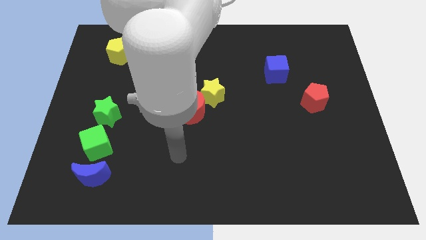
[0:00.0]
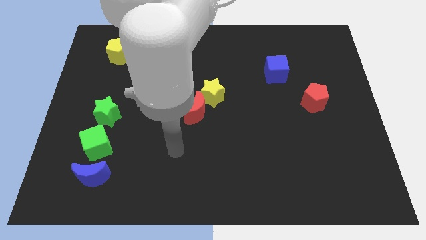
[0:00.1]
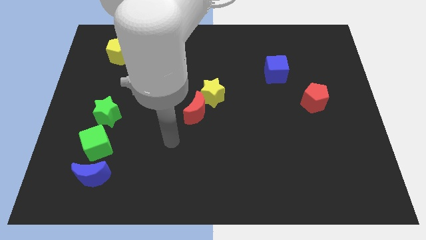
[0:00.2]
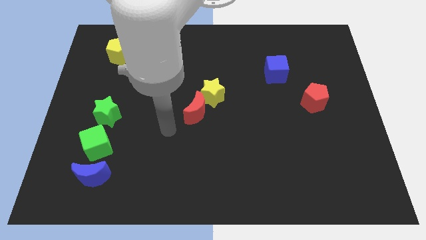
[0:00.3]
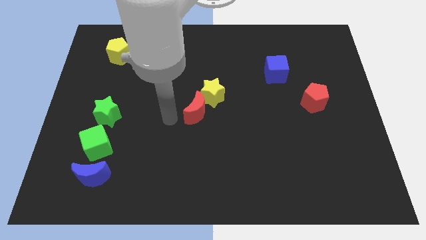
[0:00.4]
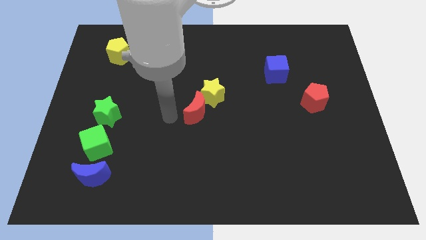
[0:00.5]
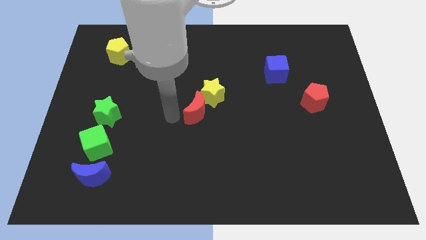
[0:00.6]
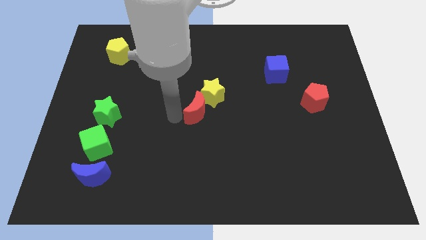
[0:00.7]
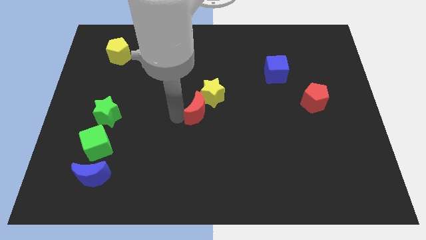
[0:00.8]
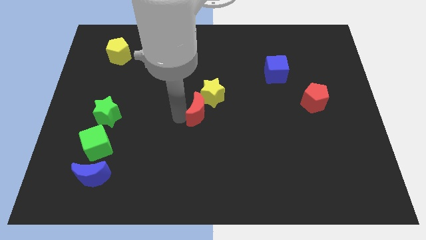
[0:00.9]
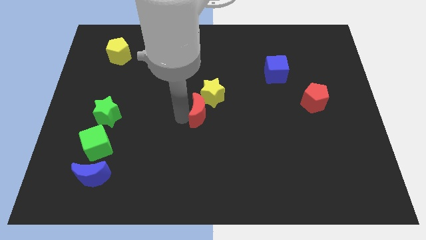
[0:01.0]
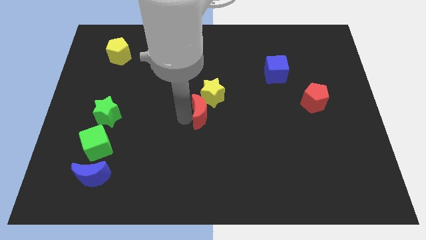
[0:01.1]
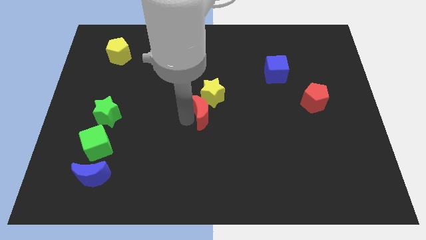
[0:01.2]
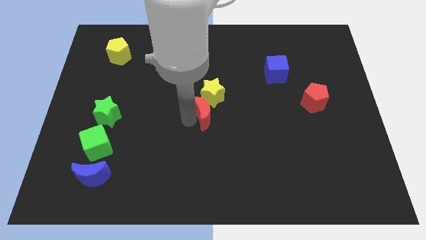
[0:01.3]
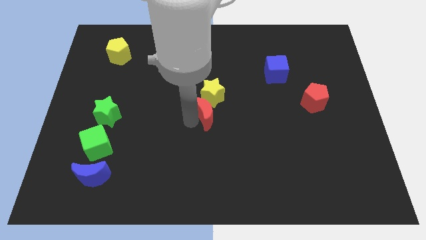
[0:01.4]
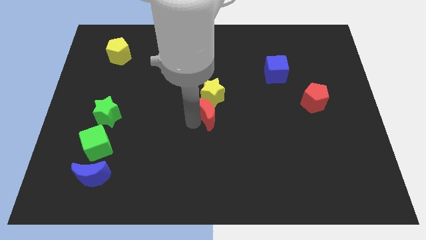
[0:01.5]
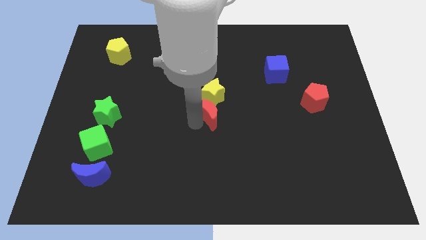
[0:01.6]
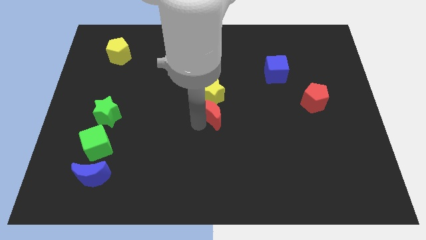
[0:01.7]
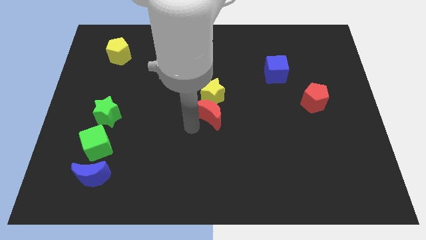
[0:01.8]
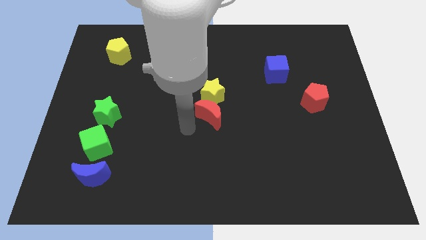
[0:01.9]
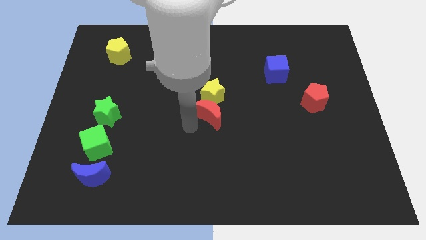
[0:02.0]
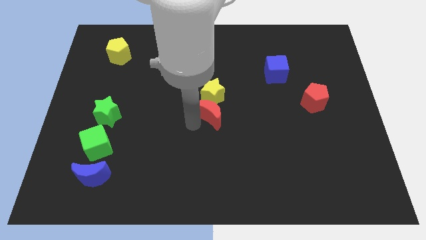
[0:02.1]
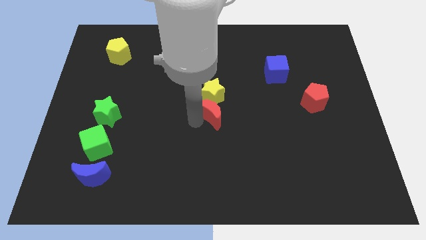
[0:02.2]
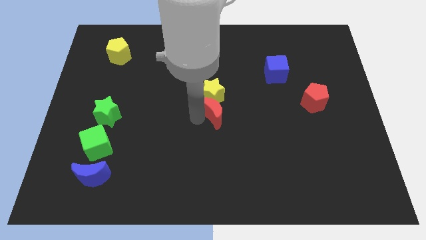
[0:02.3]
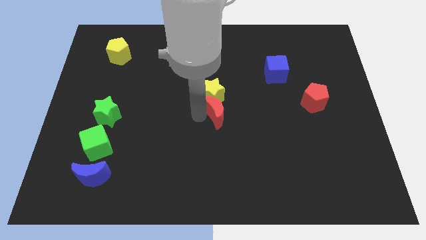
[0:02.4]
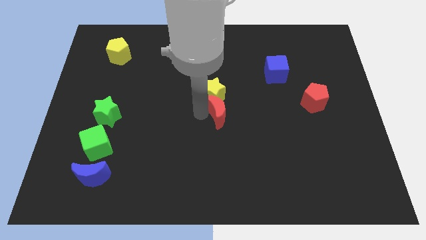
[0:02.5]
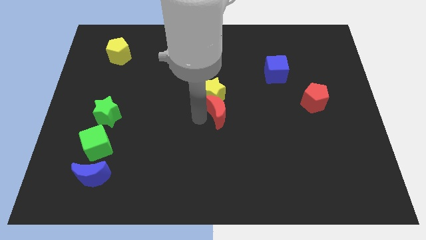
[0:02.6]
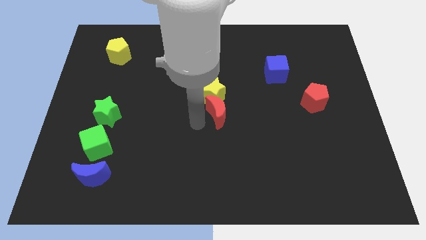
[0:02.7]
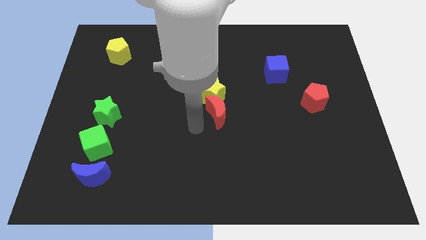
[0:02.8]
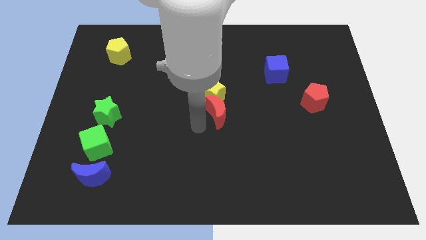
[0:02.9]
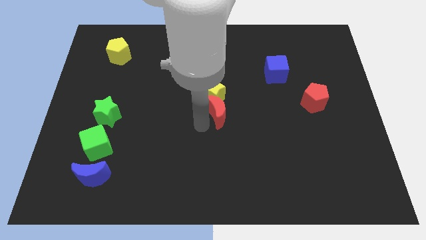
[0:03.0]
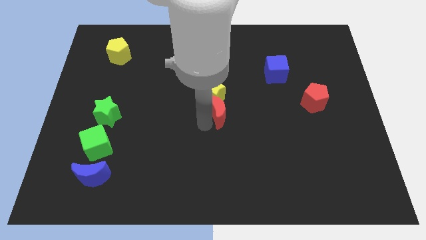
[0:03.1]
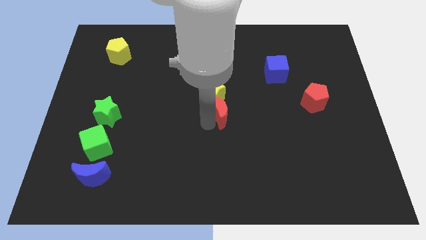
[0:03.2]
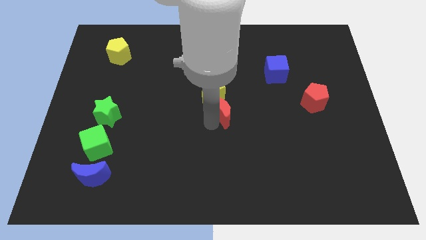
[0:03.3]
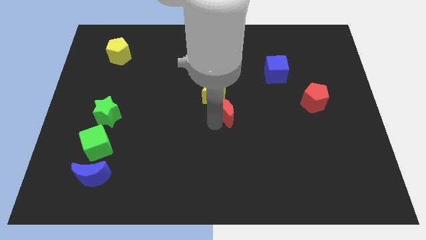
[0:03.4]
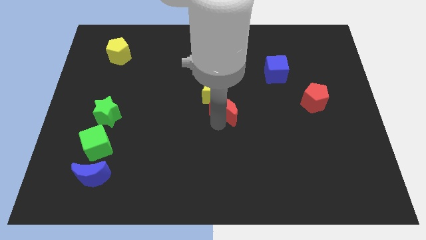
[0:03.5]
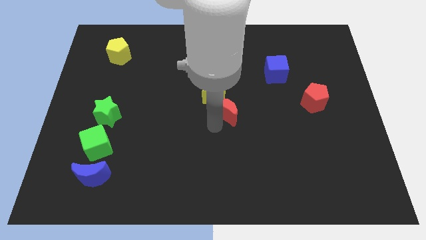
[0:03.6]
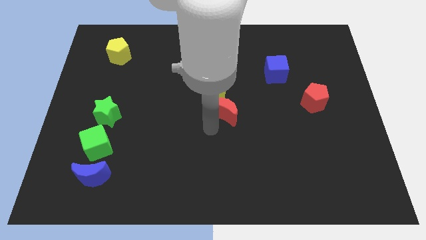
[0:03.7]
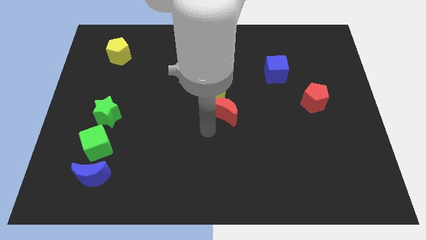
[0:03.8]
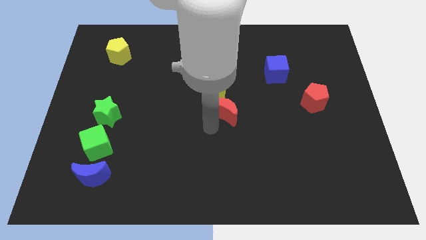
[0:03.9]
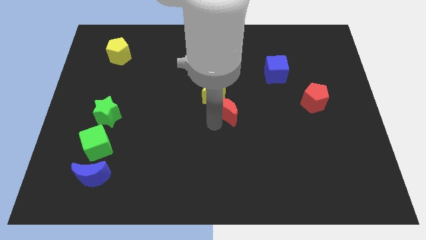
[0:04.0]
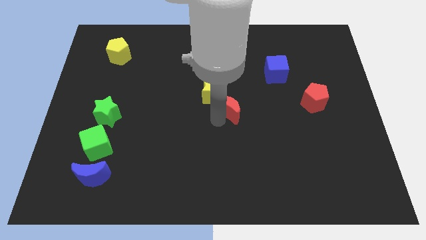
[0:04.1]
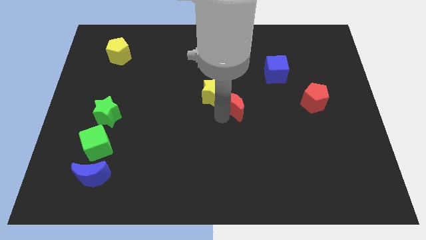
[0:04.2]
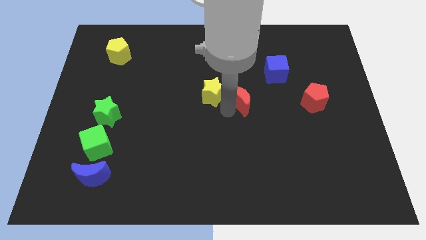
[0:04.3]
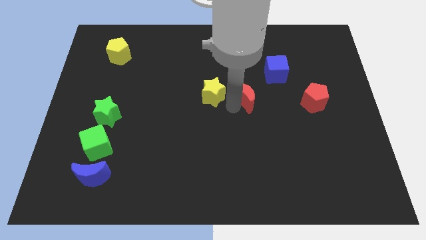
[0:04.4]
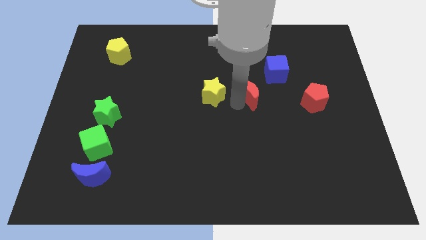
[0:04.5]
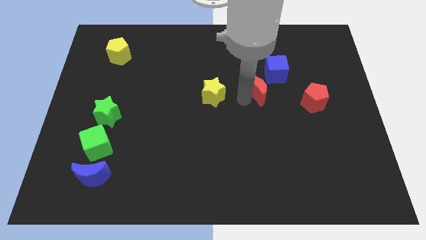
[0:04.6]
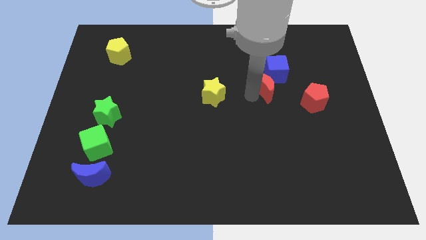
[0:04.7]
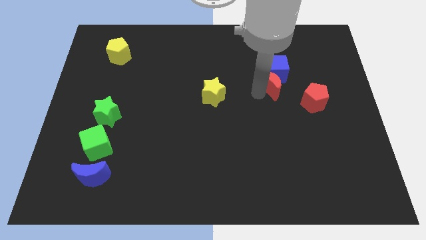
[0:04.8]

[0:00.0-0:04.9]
put the red moon to the blue cube

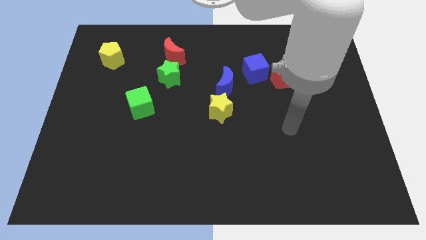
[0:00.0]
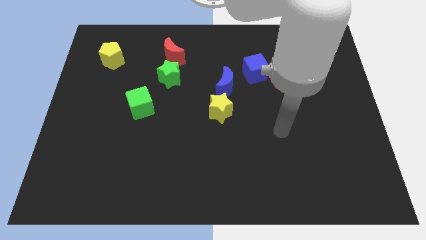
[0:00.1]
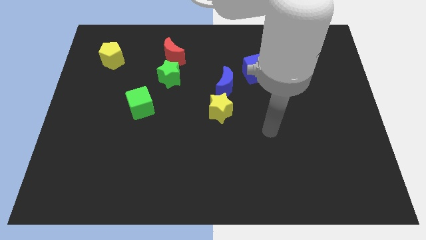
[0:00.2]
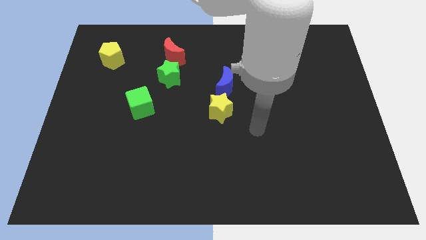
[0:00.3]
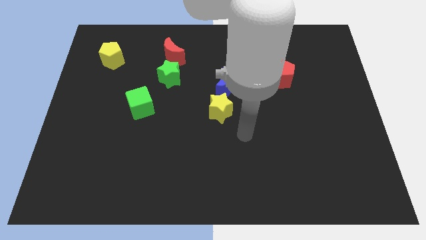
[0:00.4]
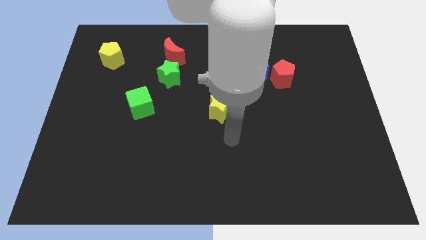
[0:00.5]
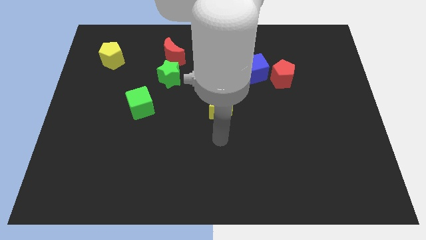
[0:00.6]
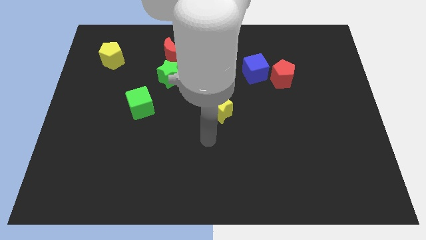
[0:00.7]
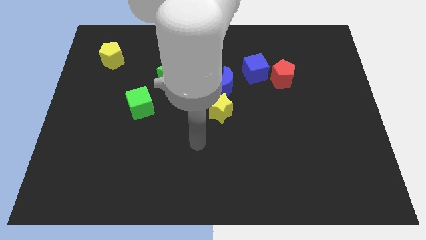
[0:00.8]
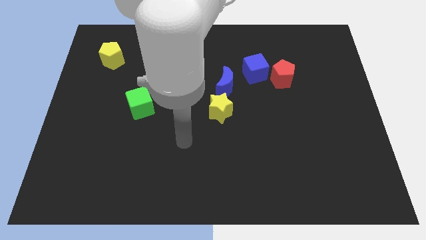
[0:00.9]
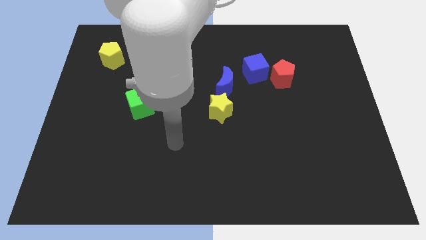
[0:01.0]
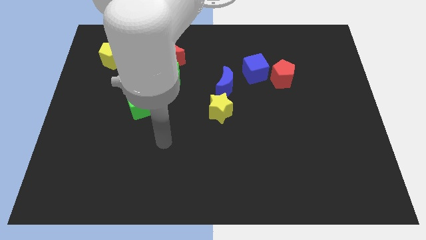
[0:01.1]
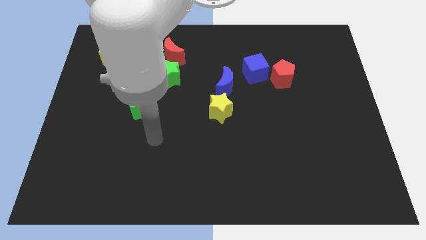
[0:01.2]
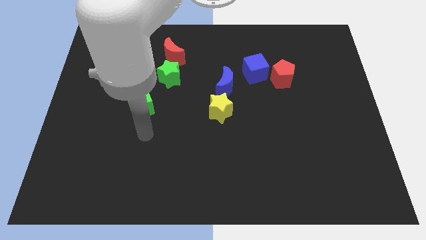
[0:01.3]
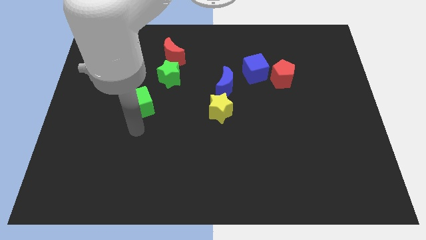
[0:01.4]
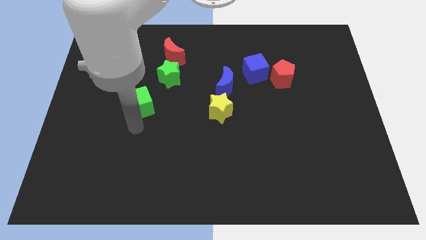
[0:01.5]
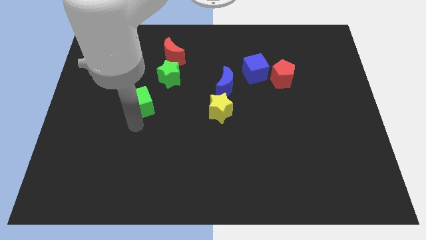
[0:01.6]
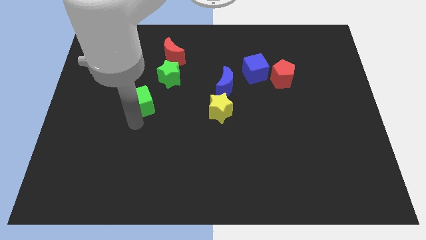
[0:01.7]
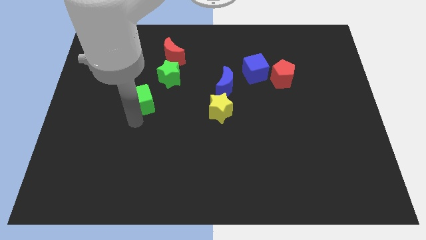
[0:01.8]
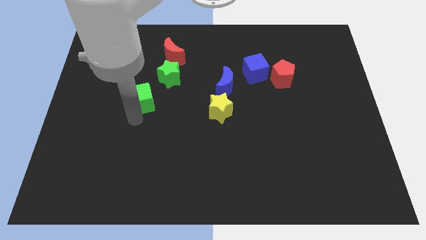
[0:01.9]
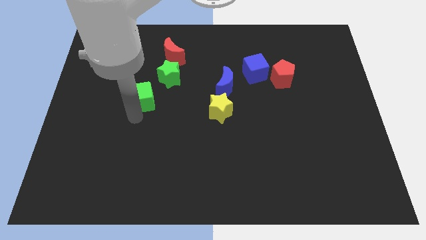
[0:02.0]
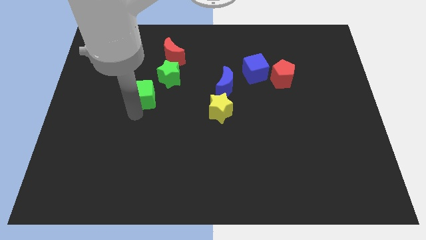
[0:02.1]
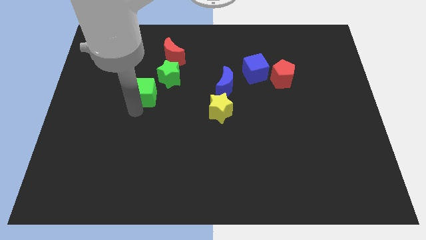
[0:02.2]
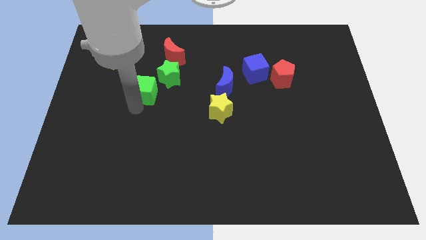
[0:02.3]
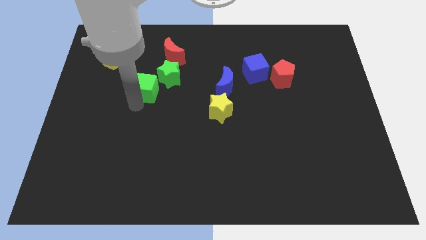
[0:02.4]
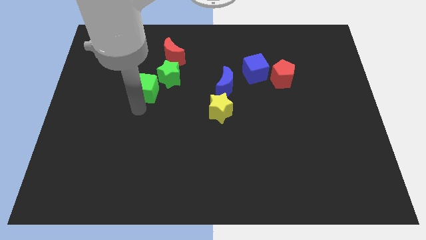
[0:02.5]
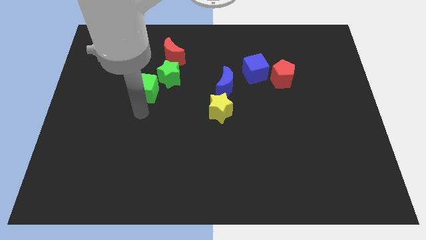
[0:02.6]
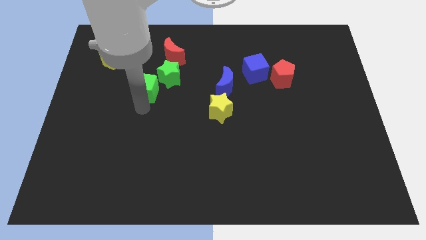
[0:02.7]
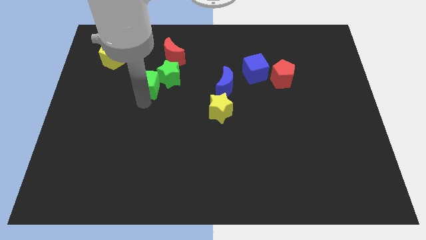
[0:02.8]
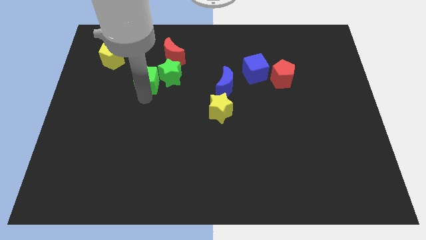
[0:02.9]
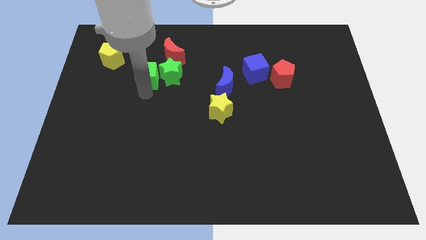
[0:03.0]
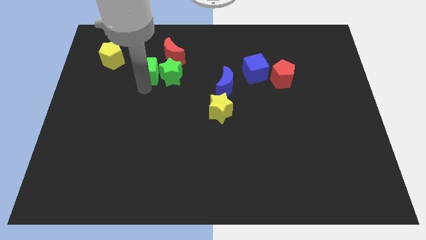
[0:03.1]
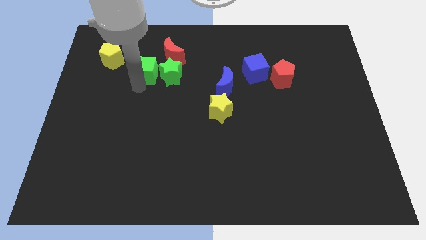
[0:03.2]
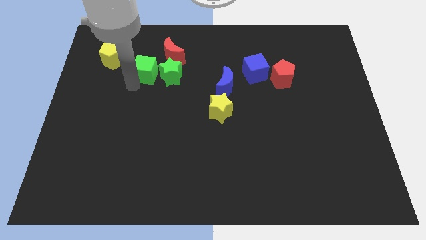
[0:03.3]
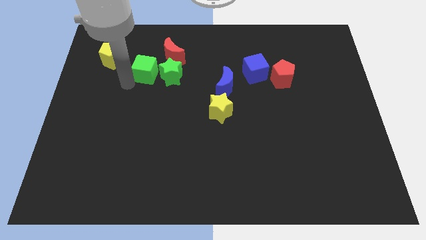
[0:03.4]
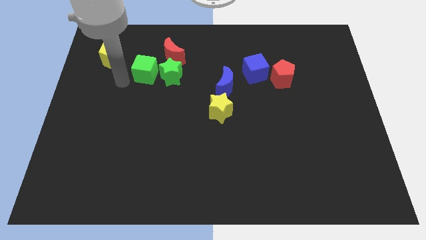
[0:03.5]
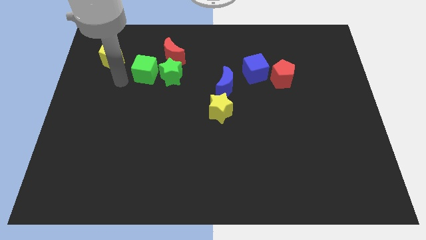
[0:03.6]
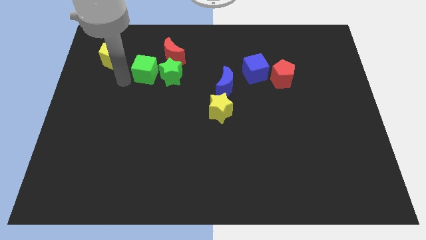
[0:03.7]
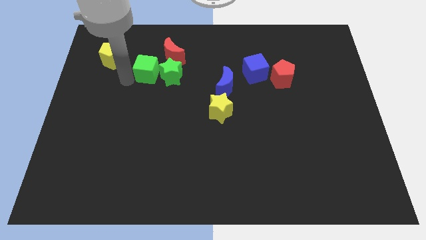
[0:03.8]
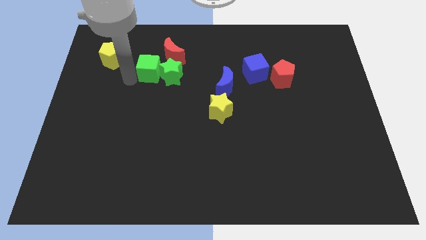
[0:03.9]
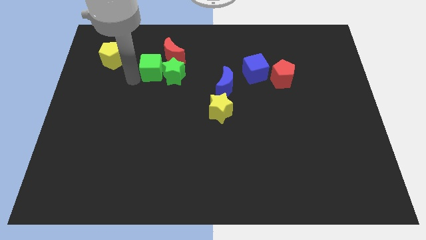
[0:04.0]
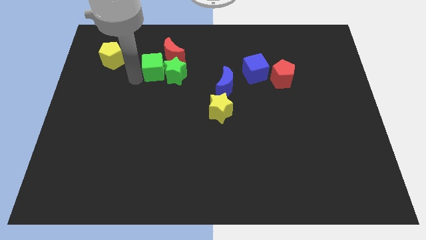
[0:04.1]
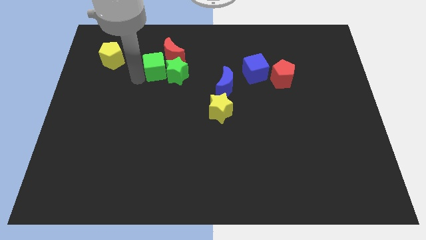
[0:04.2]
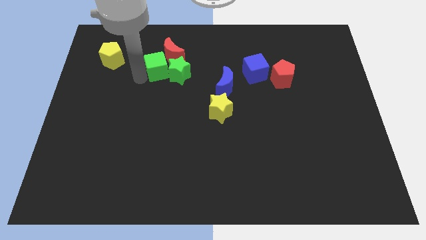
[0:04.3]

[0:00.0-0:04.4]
put the green cube close to the red moon
